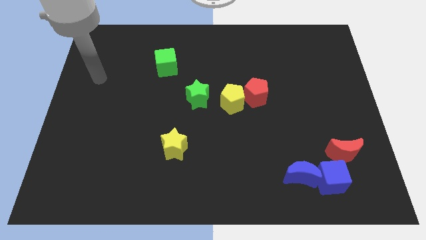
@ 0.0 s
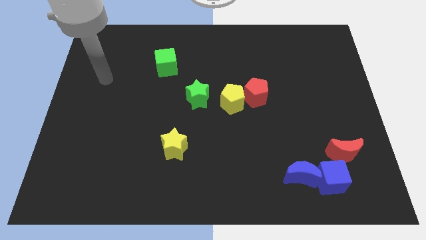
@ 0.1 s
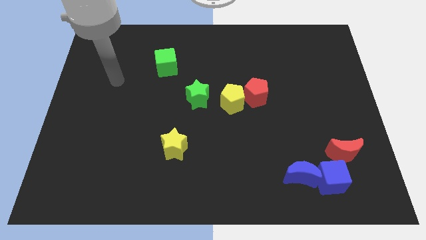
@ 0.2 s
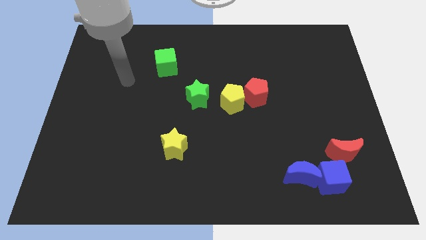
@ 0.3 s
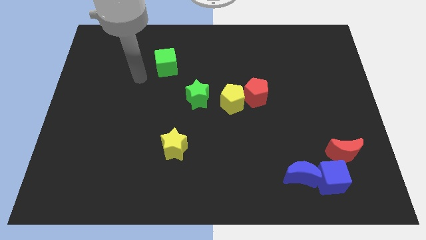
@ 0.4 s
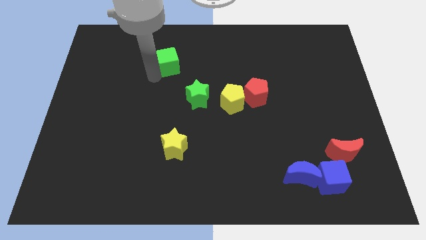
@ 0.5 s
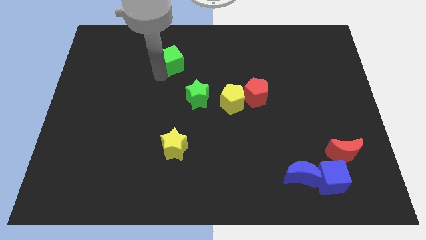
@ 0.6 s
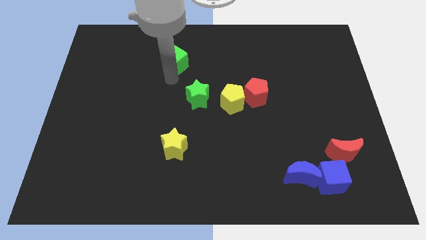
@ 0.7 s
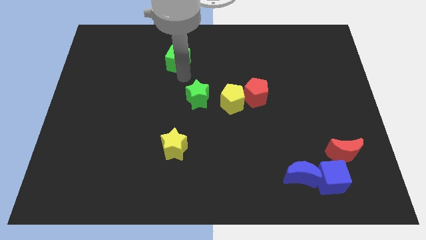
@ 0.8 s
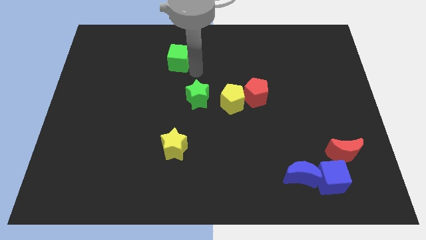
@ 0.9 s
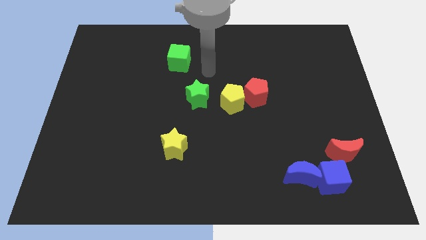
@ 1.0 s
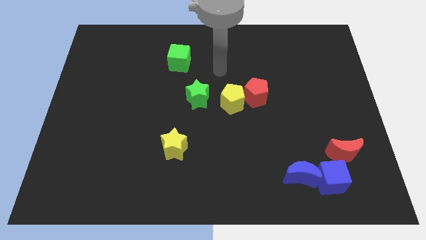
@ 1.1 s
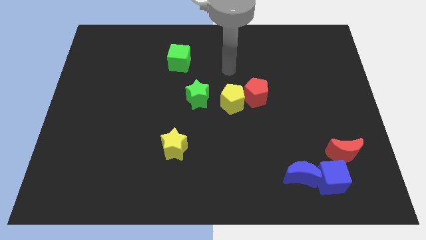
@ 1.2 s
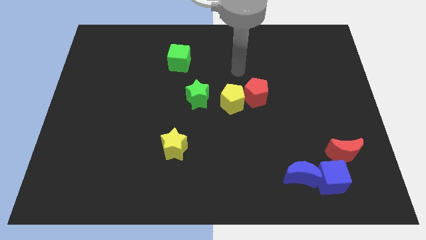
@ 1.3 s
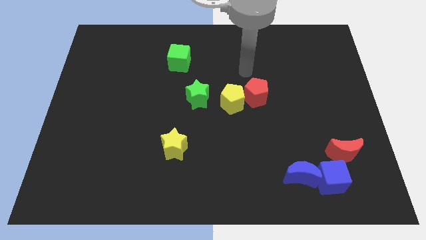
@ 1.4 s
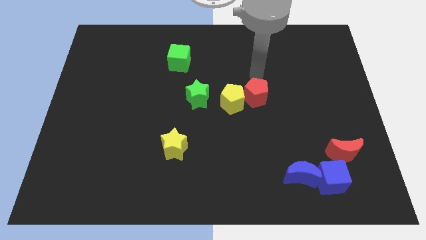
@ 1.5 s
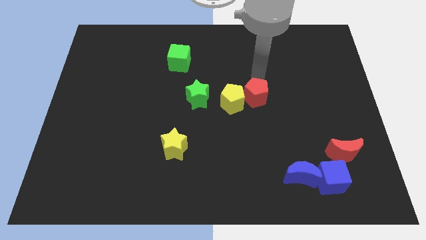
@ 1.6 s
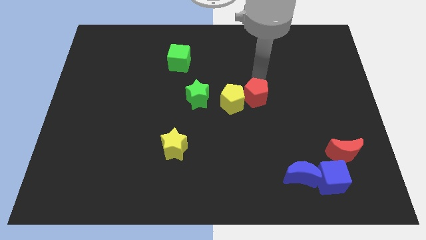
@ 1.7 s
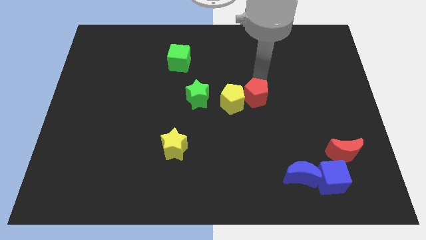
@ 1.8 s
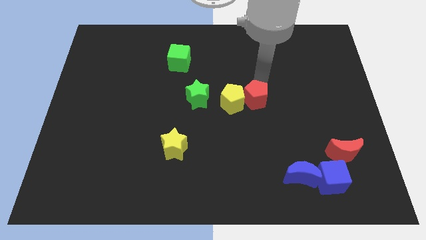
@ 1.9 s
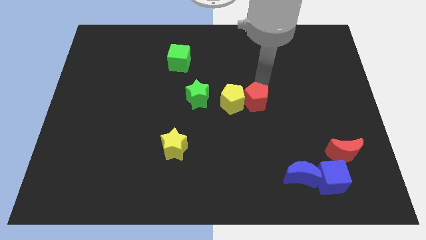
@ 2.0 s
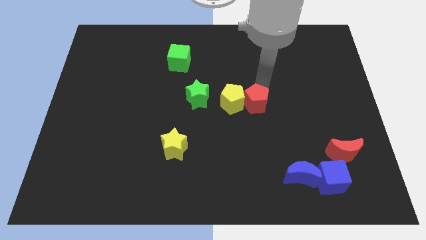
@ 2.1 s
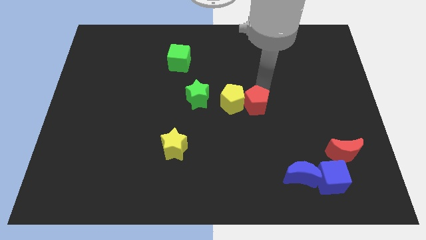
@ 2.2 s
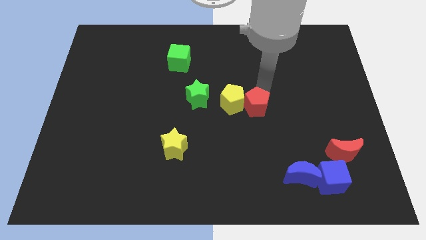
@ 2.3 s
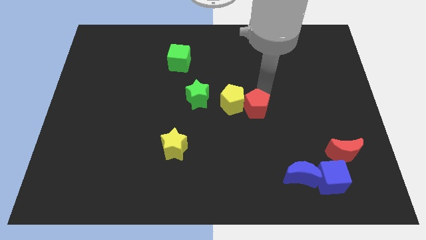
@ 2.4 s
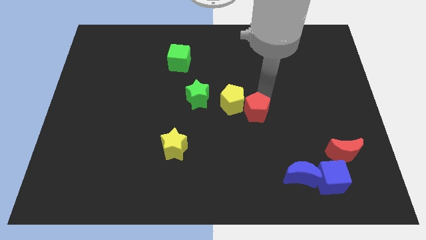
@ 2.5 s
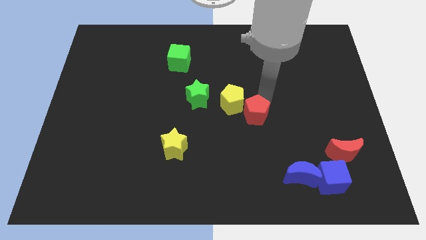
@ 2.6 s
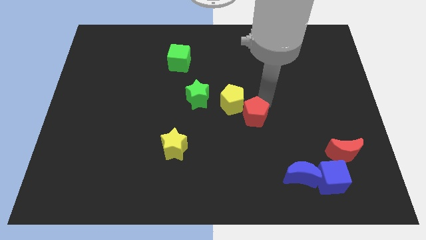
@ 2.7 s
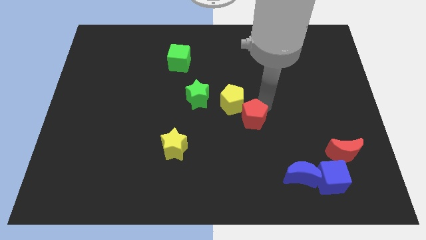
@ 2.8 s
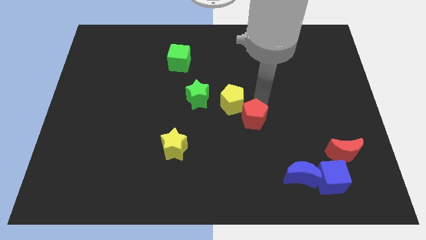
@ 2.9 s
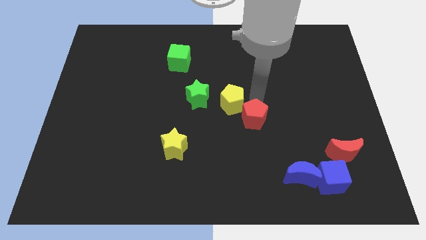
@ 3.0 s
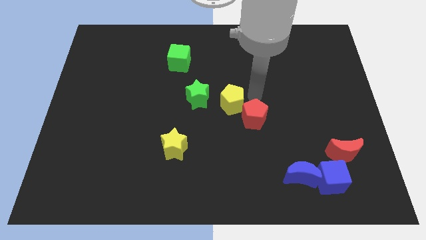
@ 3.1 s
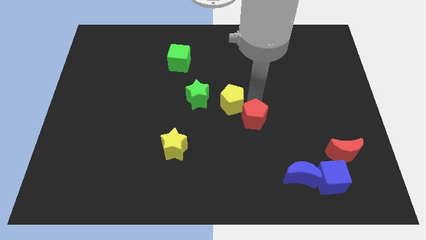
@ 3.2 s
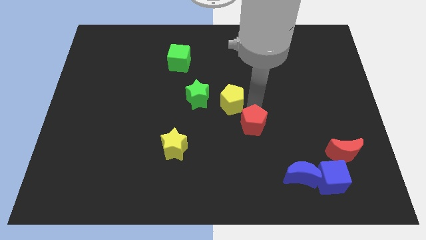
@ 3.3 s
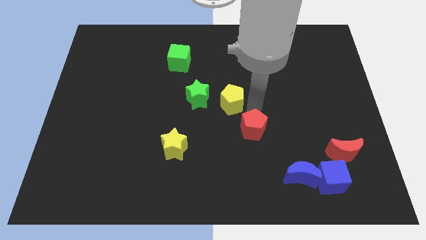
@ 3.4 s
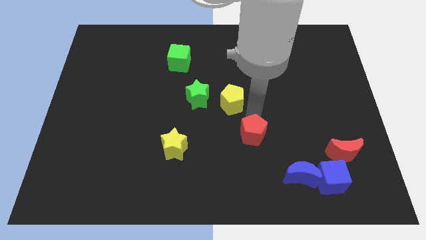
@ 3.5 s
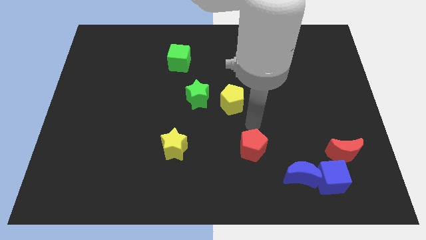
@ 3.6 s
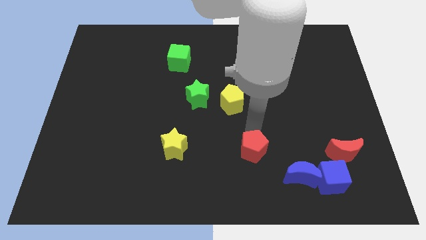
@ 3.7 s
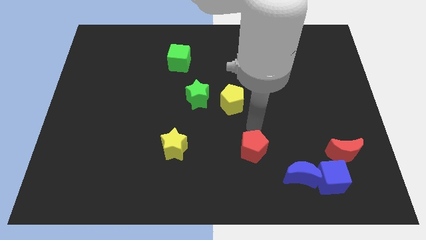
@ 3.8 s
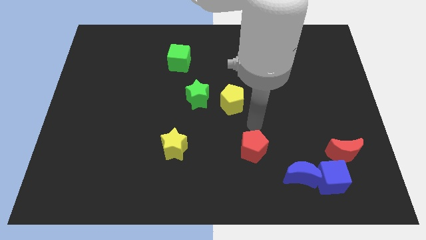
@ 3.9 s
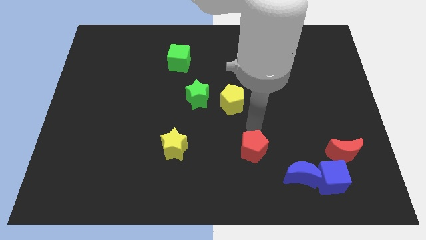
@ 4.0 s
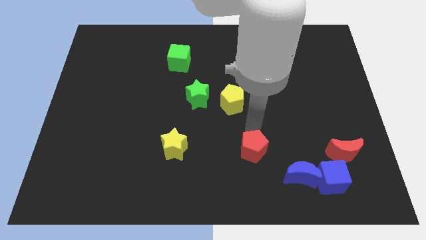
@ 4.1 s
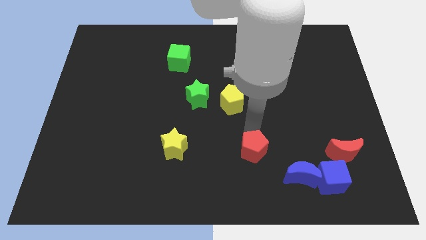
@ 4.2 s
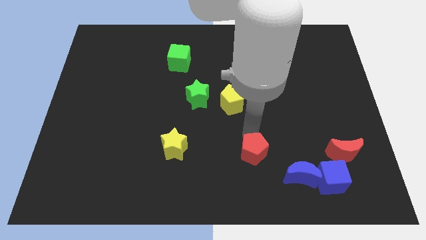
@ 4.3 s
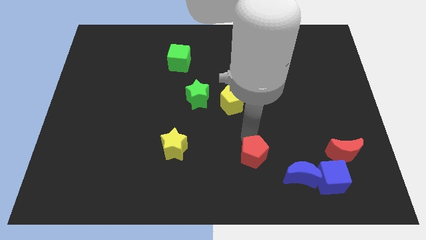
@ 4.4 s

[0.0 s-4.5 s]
push the red pentagon to the left of the blue moon

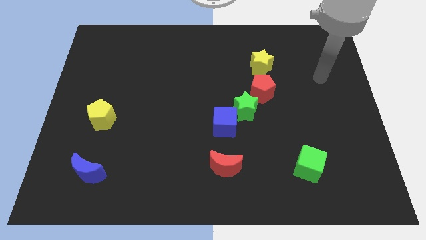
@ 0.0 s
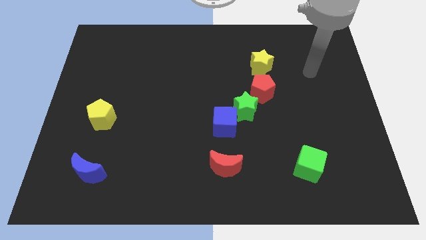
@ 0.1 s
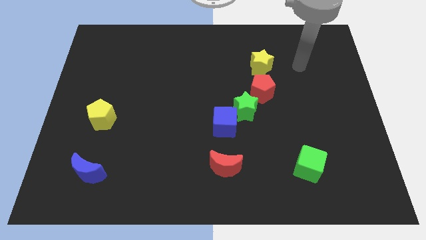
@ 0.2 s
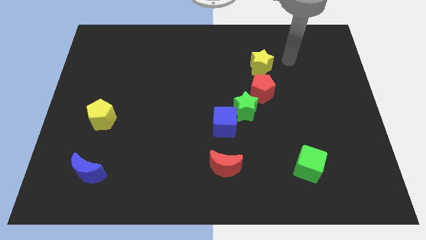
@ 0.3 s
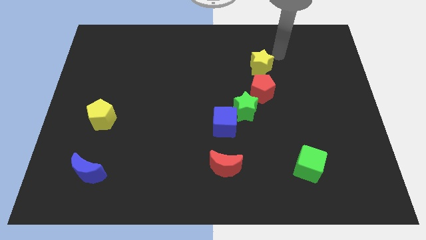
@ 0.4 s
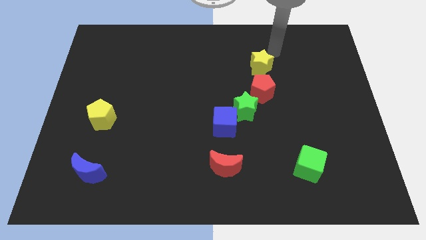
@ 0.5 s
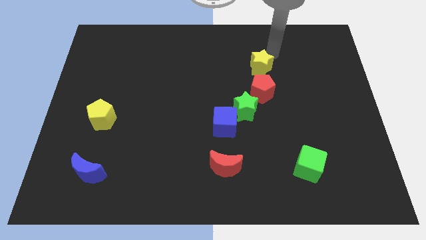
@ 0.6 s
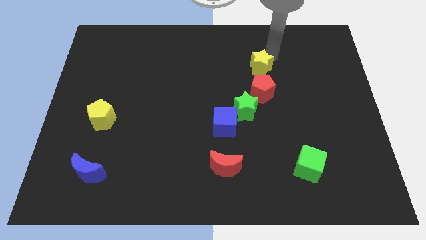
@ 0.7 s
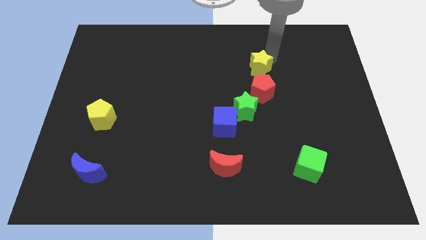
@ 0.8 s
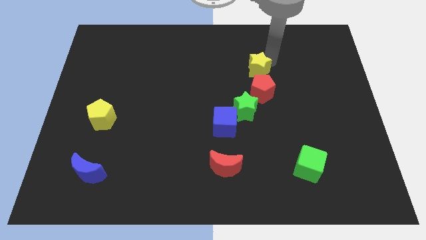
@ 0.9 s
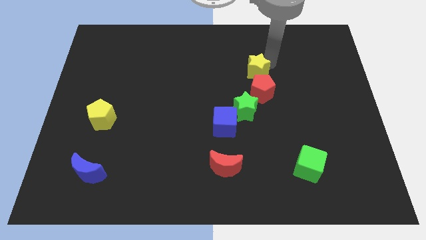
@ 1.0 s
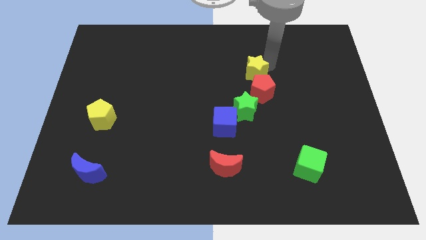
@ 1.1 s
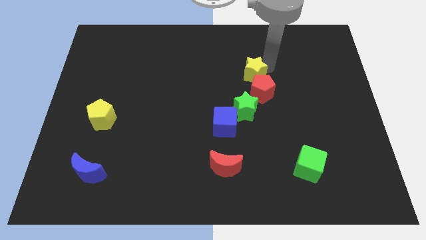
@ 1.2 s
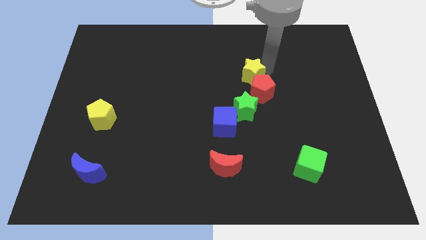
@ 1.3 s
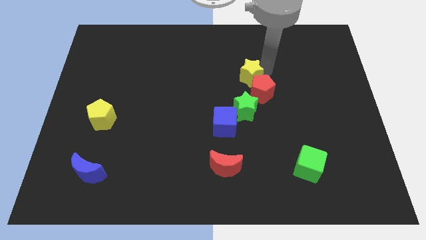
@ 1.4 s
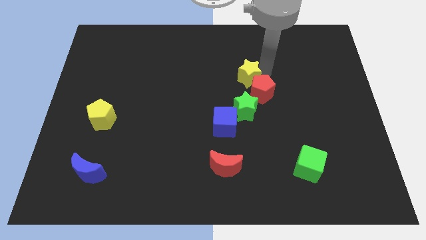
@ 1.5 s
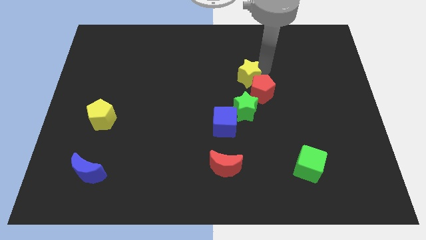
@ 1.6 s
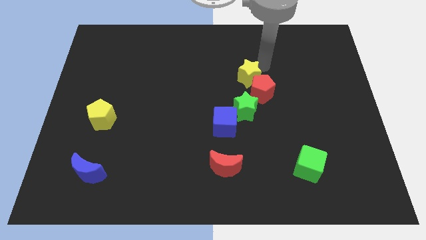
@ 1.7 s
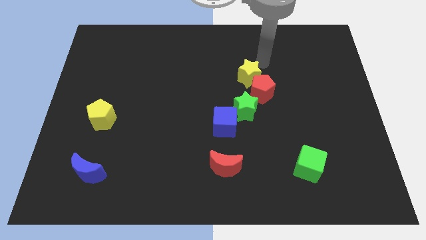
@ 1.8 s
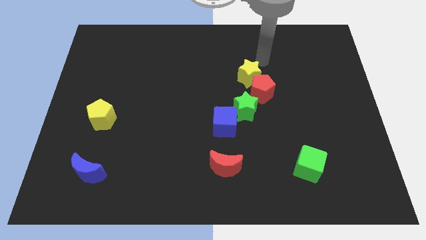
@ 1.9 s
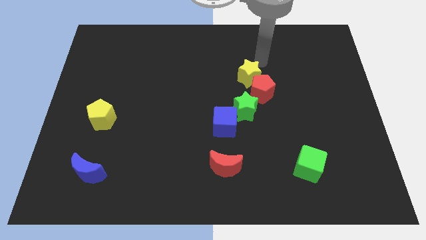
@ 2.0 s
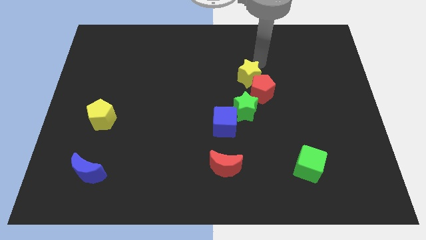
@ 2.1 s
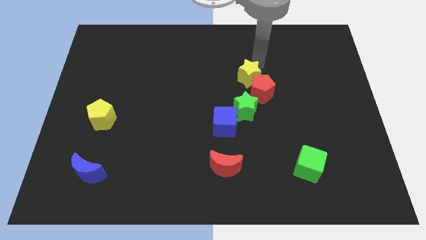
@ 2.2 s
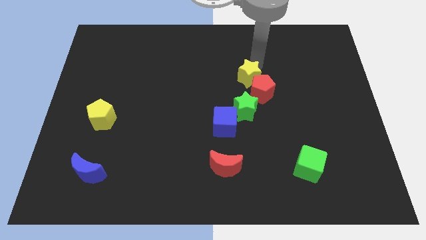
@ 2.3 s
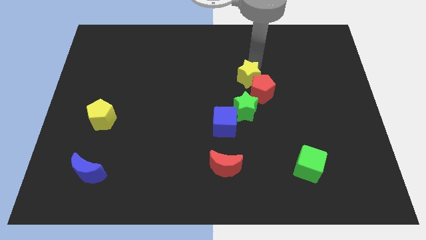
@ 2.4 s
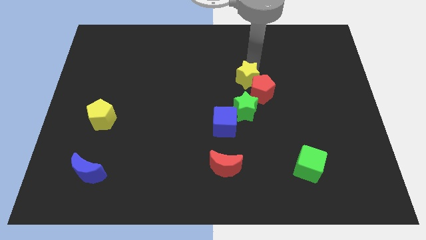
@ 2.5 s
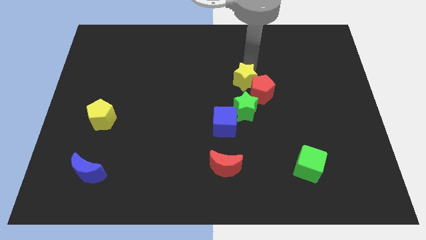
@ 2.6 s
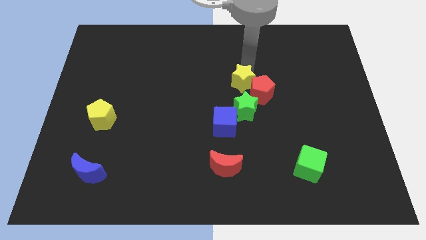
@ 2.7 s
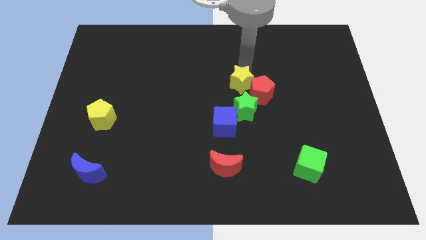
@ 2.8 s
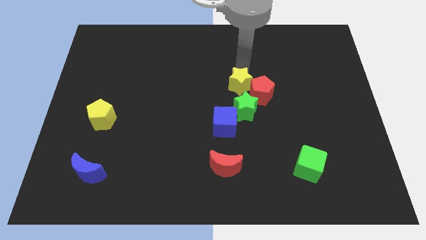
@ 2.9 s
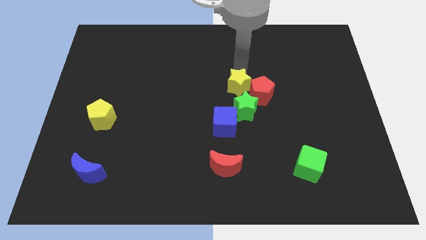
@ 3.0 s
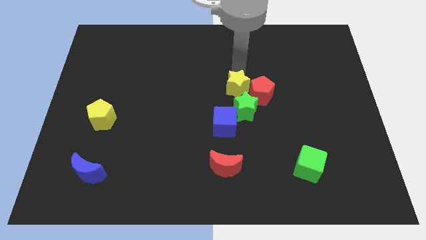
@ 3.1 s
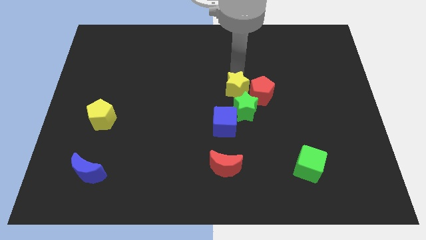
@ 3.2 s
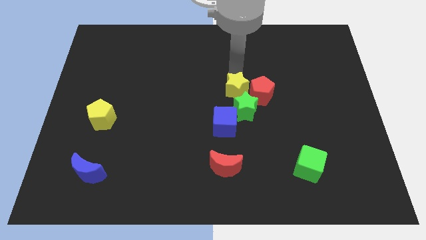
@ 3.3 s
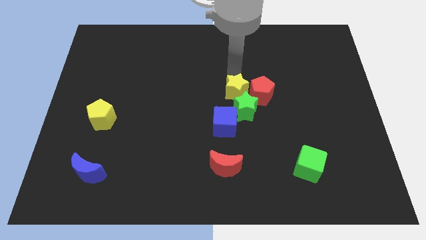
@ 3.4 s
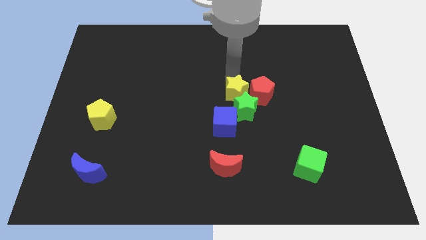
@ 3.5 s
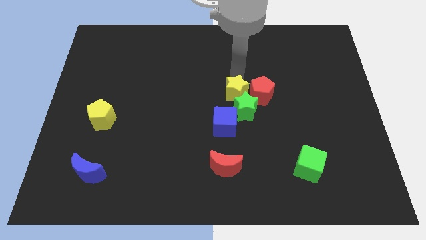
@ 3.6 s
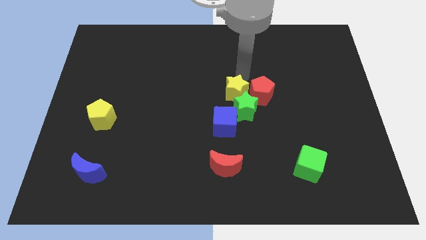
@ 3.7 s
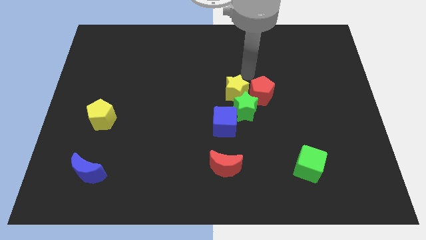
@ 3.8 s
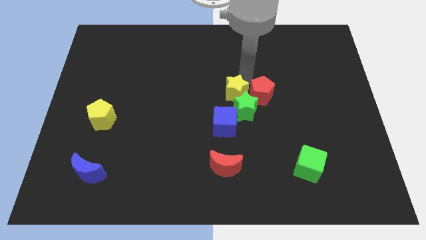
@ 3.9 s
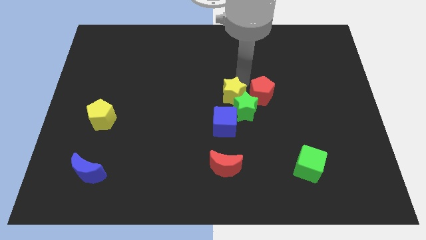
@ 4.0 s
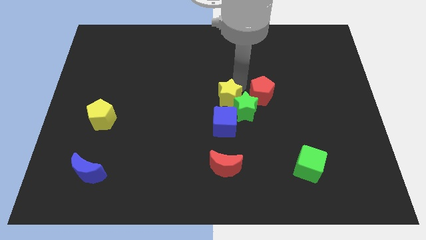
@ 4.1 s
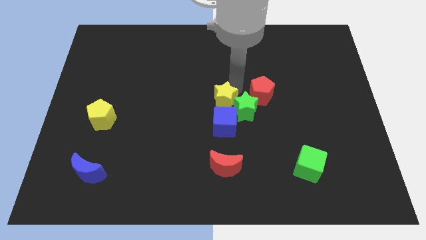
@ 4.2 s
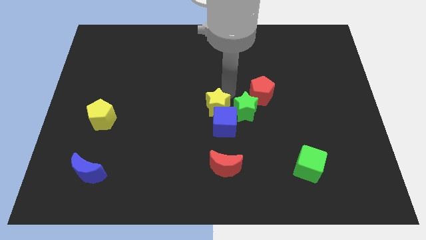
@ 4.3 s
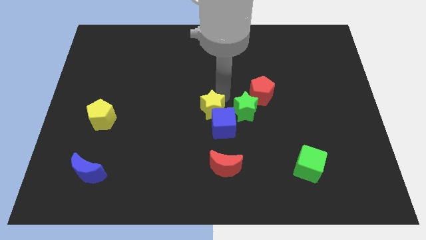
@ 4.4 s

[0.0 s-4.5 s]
slide the yellow star to the top of the red moon
